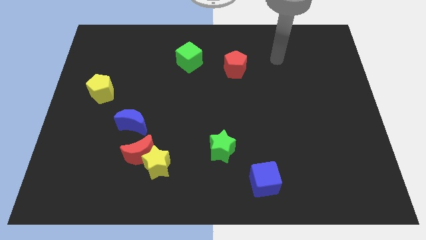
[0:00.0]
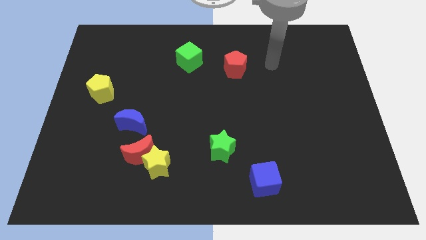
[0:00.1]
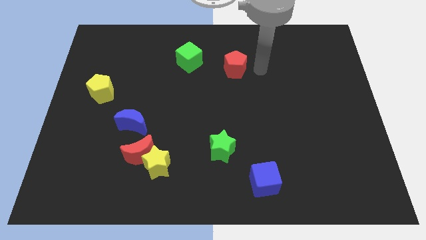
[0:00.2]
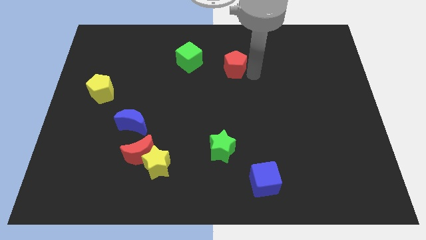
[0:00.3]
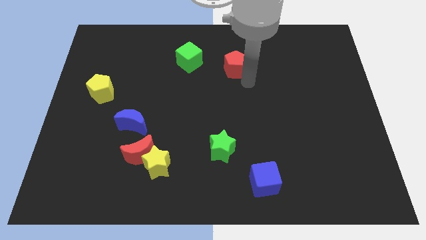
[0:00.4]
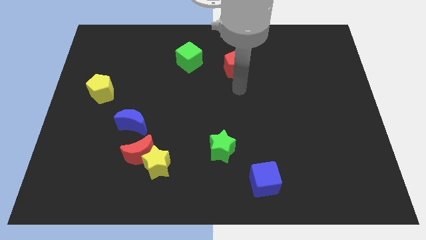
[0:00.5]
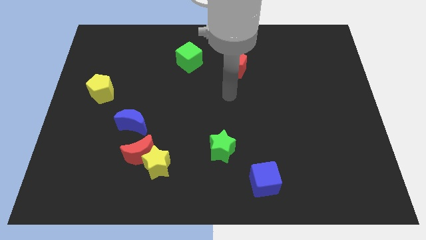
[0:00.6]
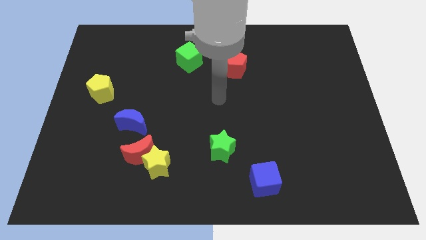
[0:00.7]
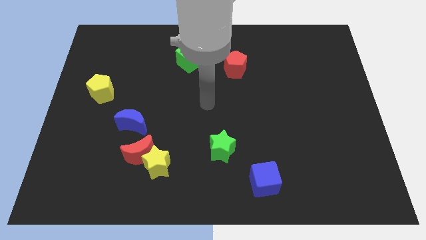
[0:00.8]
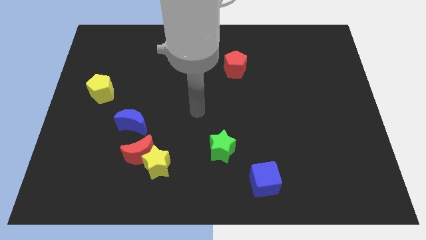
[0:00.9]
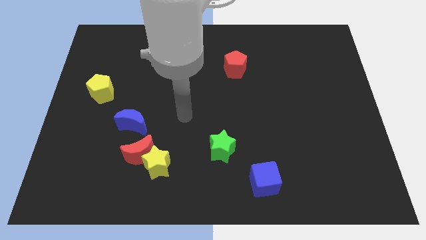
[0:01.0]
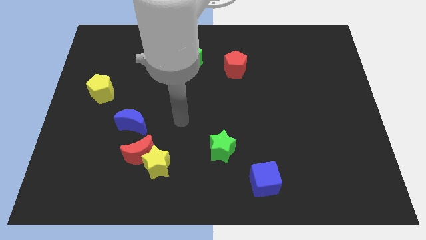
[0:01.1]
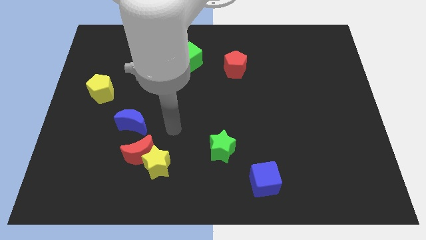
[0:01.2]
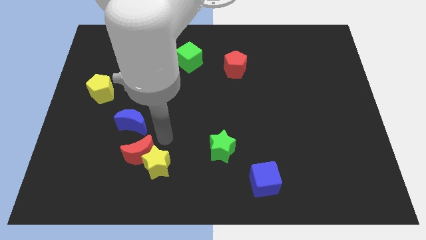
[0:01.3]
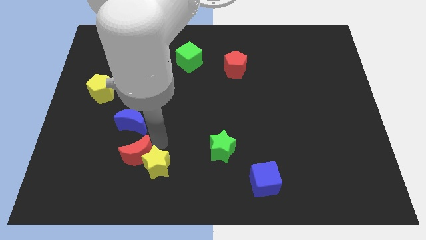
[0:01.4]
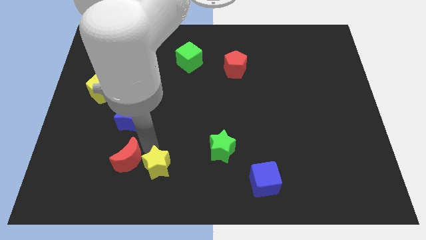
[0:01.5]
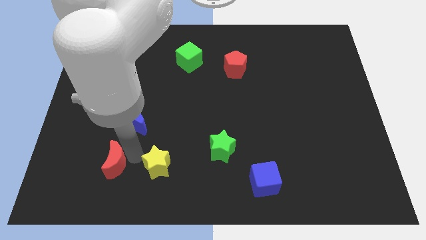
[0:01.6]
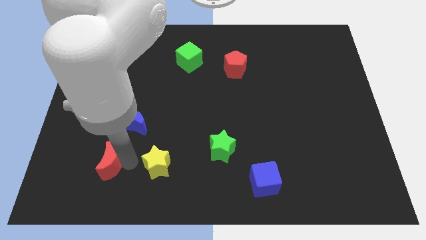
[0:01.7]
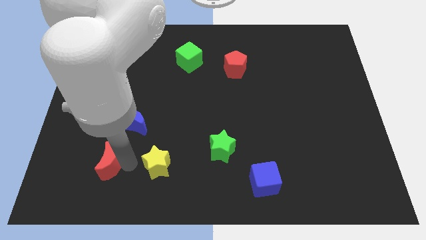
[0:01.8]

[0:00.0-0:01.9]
pull the yellow star apart from the red moon

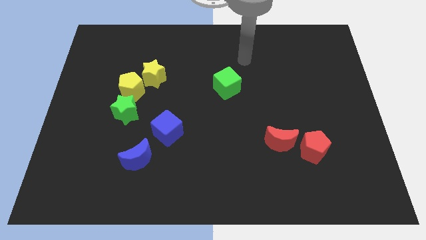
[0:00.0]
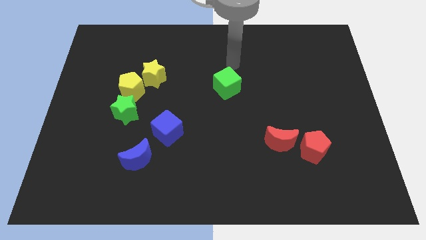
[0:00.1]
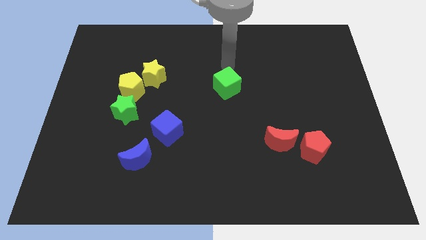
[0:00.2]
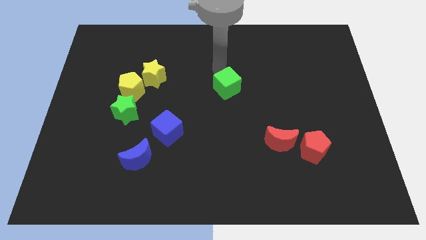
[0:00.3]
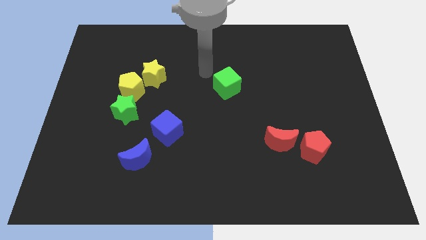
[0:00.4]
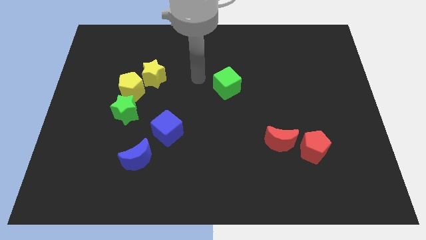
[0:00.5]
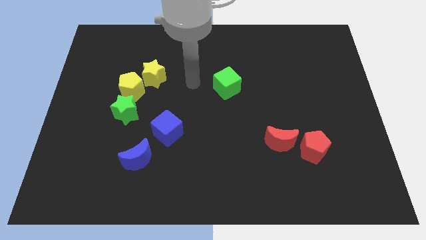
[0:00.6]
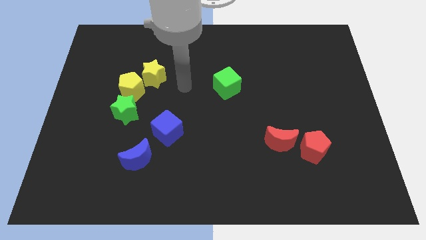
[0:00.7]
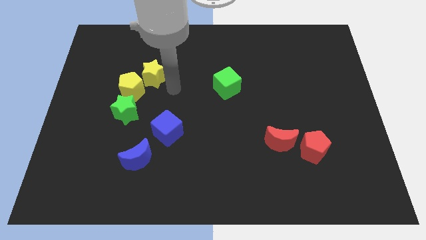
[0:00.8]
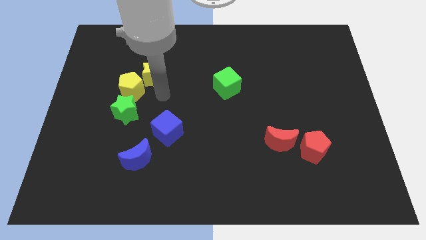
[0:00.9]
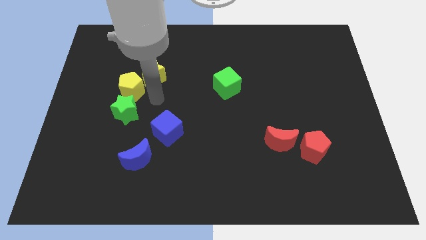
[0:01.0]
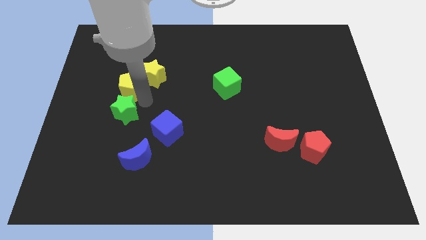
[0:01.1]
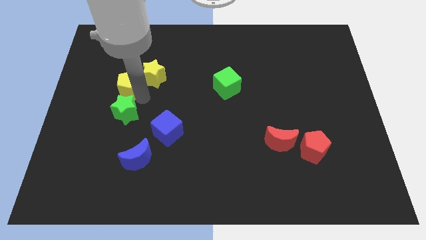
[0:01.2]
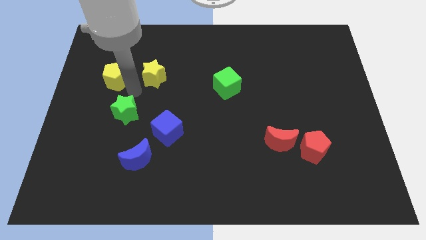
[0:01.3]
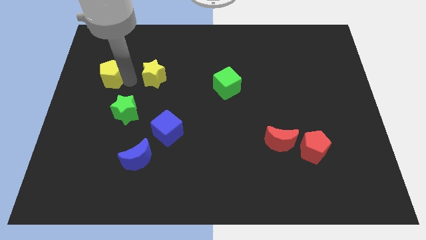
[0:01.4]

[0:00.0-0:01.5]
pull the yellow star apart from the yellow pentagon

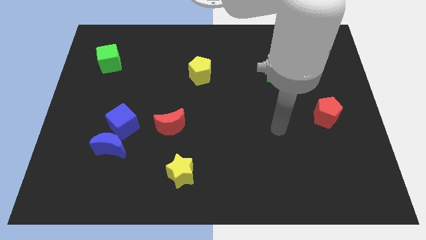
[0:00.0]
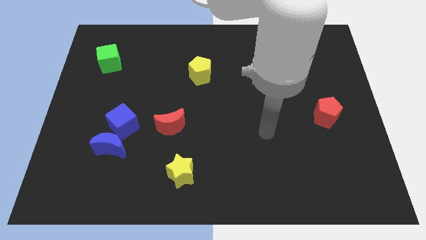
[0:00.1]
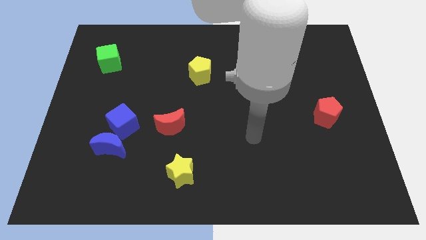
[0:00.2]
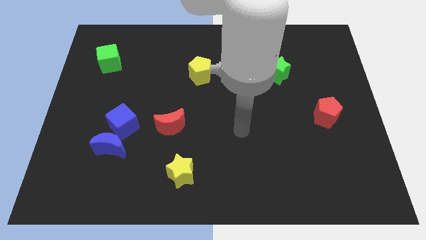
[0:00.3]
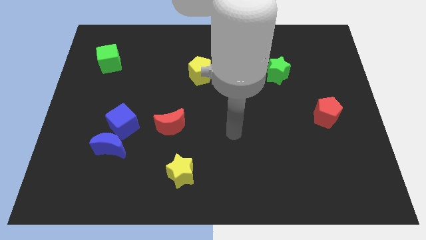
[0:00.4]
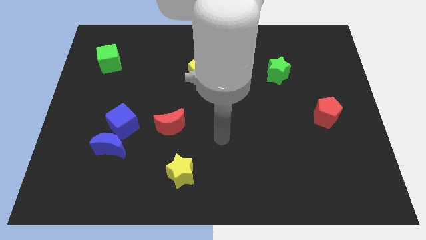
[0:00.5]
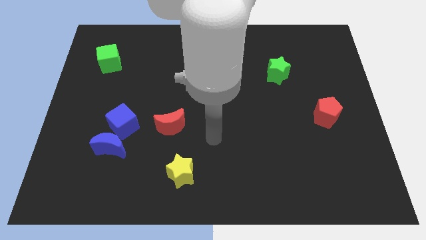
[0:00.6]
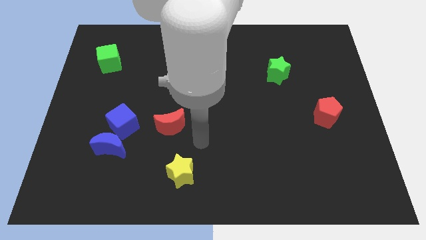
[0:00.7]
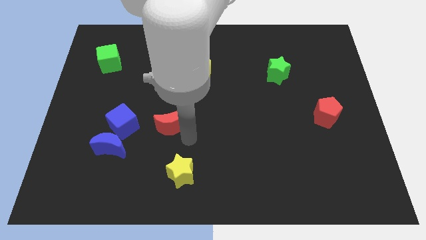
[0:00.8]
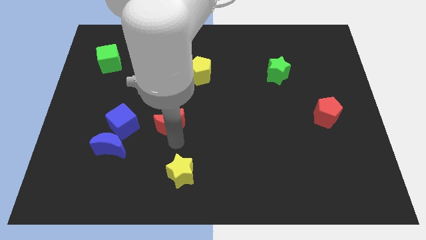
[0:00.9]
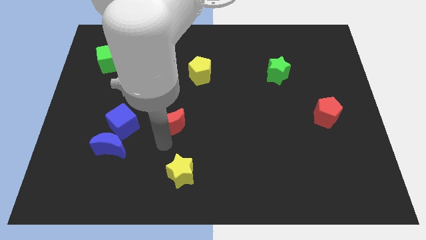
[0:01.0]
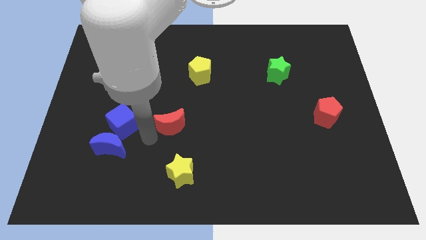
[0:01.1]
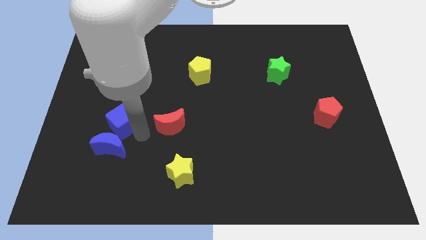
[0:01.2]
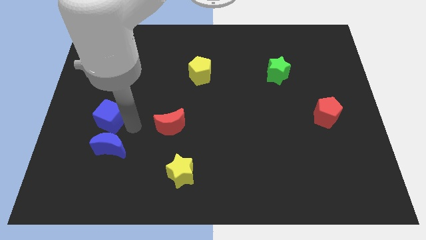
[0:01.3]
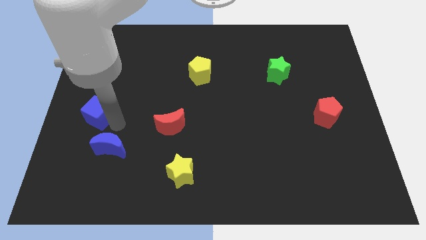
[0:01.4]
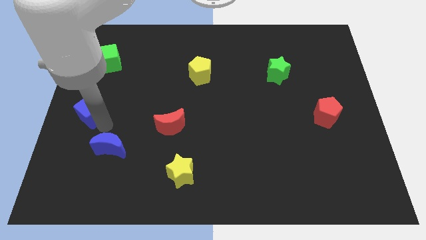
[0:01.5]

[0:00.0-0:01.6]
separate the blue moon from the blue cube

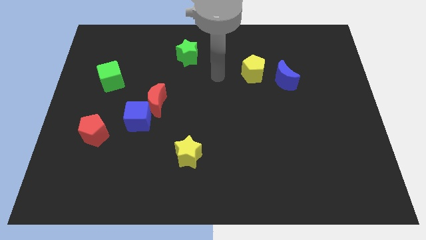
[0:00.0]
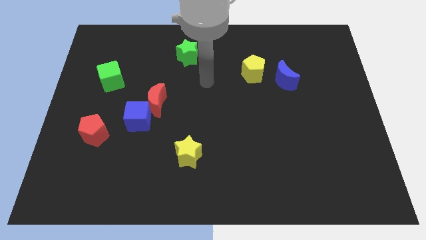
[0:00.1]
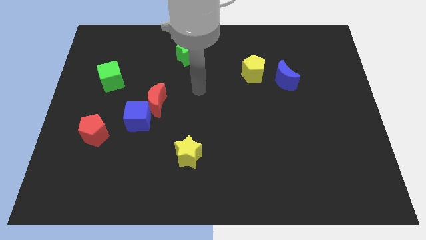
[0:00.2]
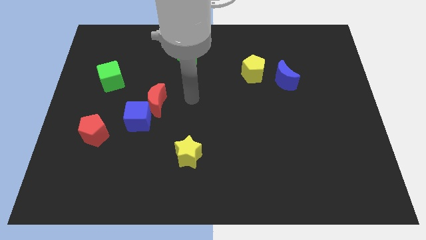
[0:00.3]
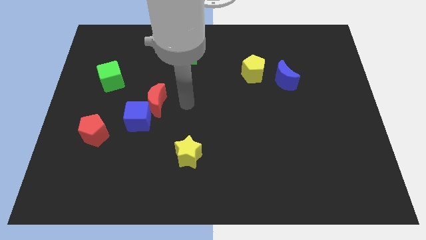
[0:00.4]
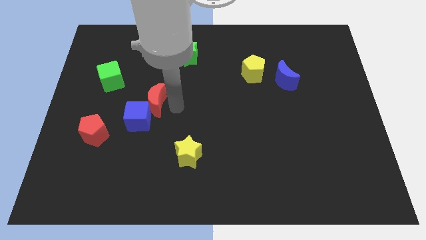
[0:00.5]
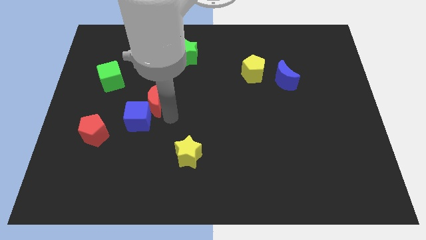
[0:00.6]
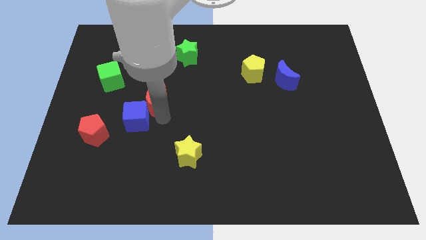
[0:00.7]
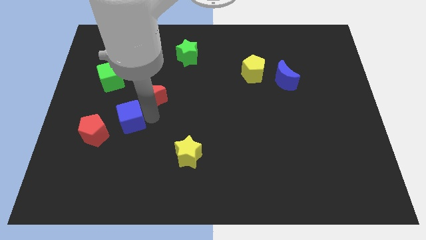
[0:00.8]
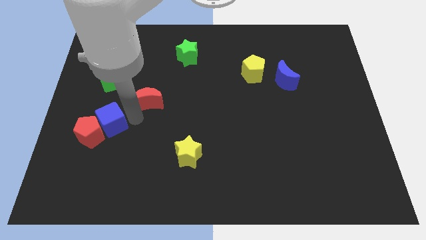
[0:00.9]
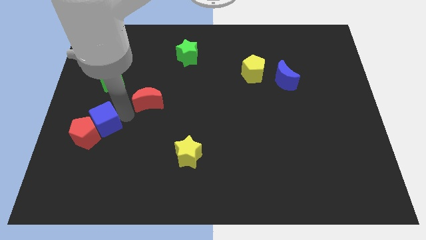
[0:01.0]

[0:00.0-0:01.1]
move the red moon away from the blue cube

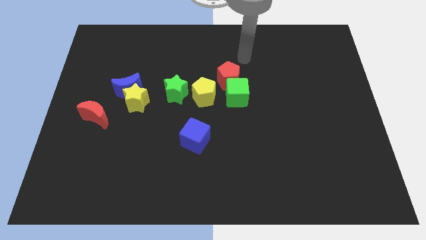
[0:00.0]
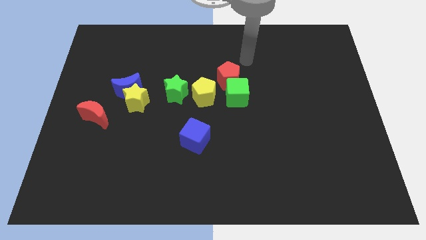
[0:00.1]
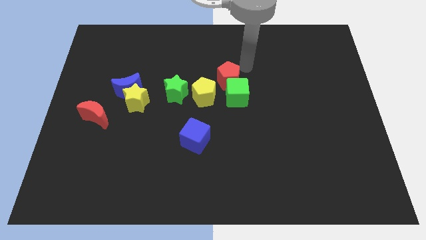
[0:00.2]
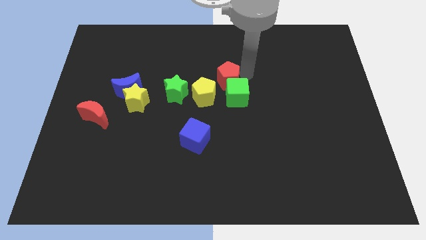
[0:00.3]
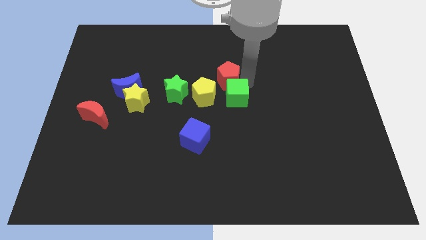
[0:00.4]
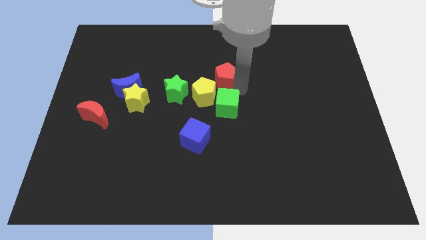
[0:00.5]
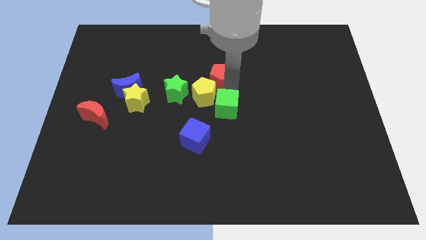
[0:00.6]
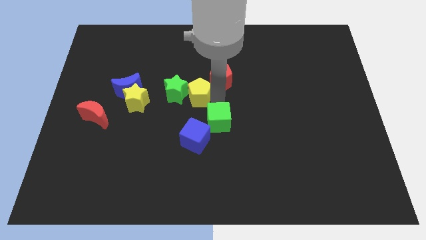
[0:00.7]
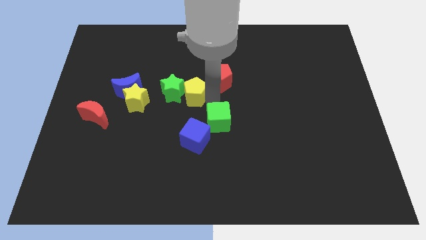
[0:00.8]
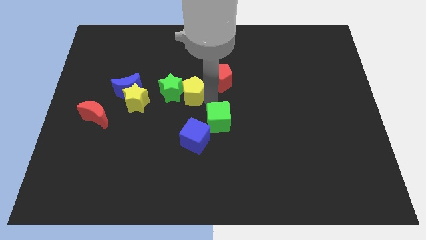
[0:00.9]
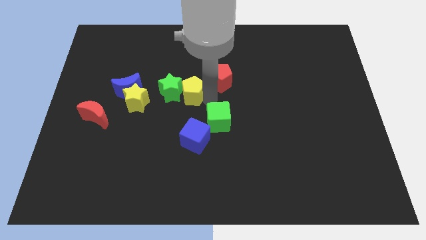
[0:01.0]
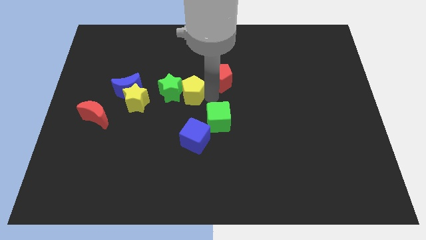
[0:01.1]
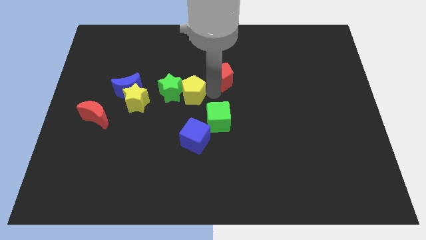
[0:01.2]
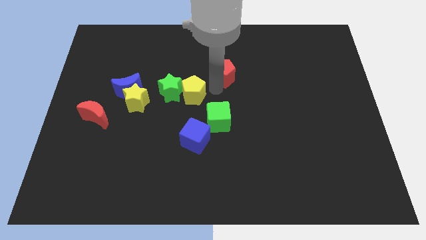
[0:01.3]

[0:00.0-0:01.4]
pull the red pentagon apart from the green cube and yellow pentagon

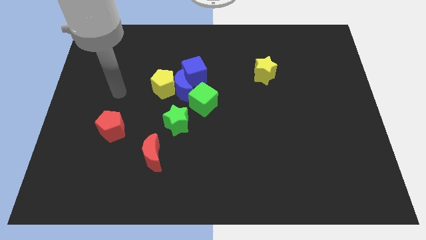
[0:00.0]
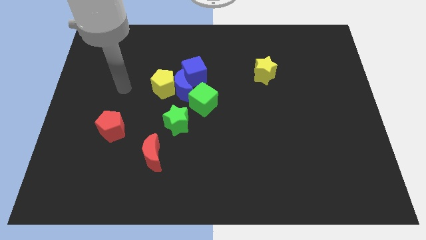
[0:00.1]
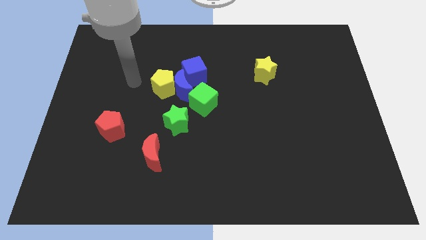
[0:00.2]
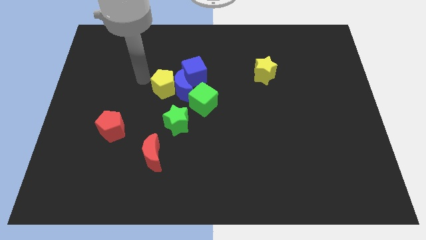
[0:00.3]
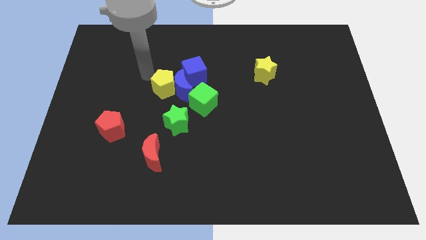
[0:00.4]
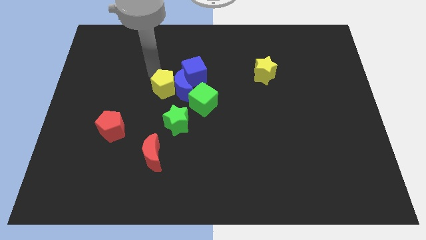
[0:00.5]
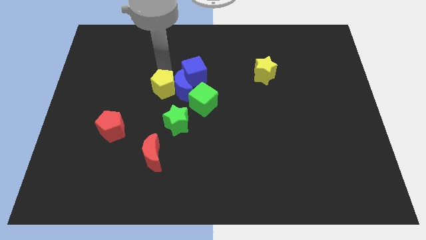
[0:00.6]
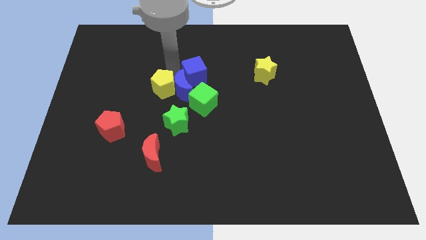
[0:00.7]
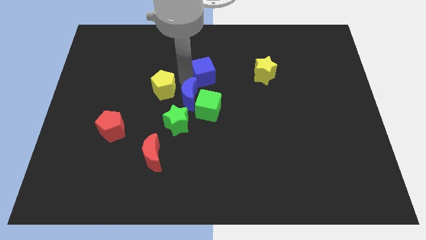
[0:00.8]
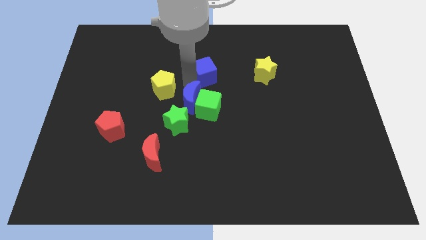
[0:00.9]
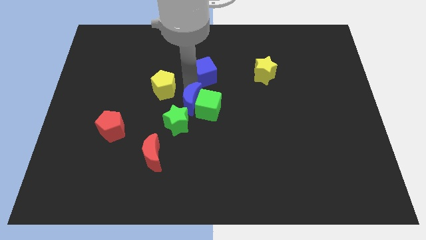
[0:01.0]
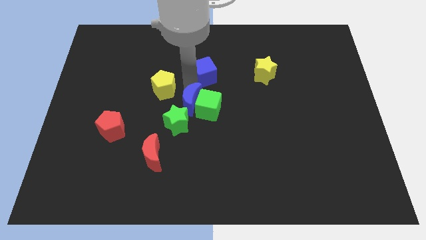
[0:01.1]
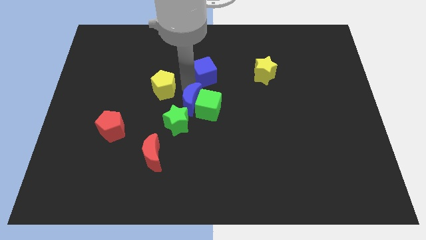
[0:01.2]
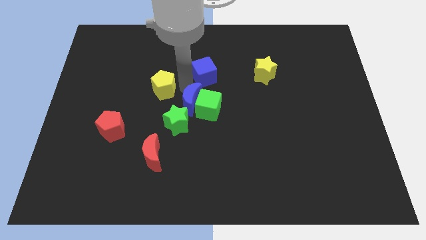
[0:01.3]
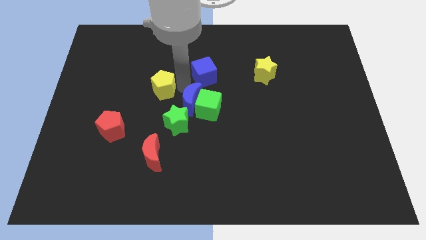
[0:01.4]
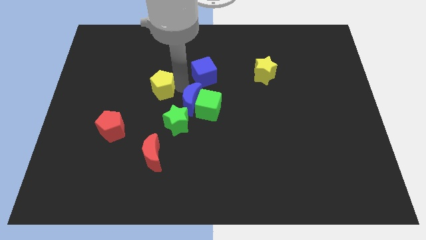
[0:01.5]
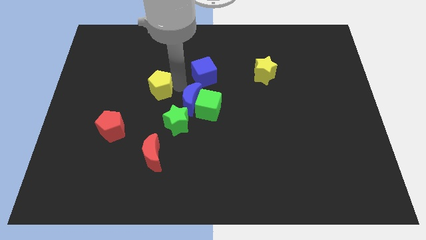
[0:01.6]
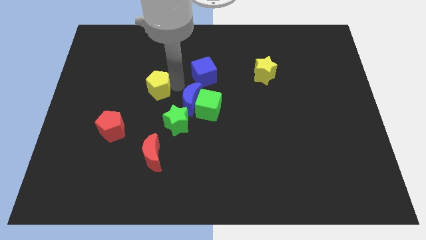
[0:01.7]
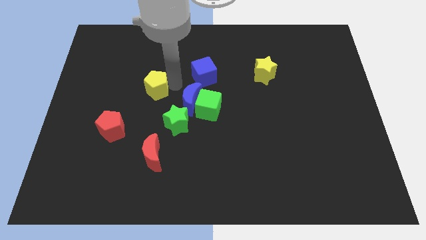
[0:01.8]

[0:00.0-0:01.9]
separate the yellow pentagon from the blue moon and blue cube
